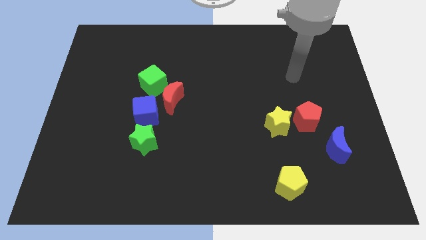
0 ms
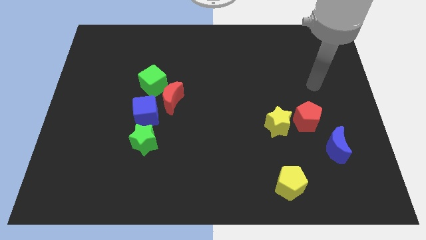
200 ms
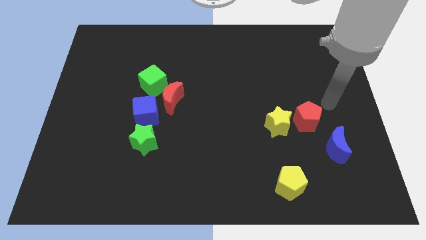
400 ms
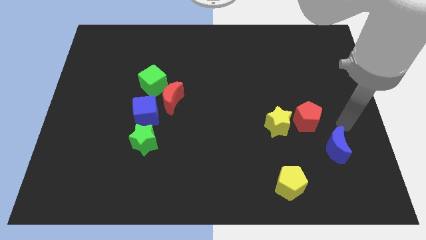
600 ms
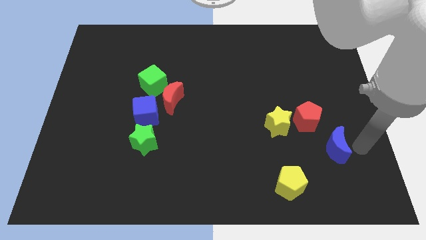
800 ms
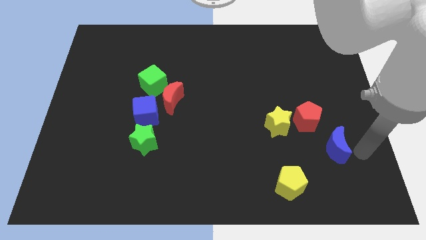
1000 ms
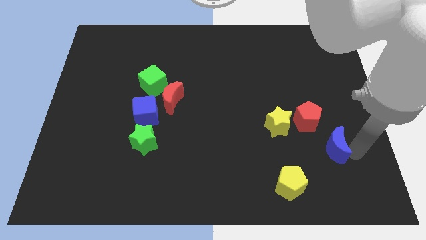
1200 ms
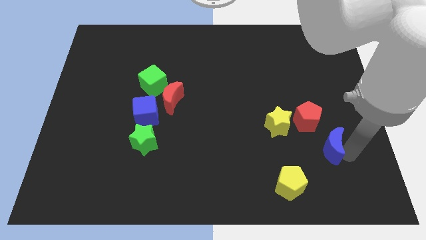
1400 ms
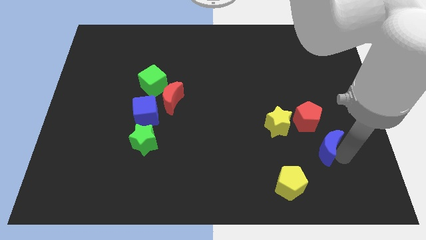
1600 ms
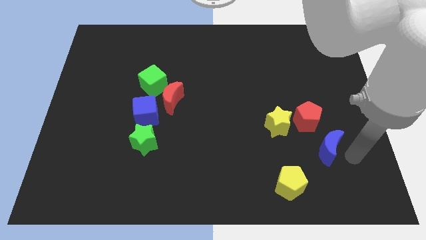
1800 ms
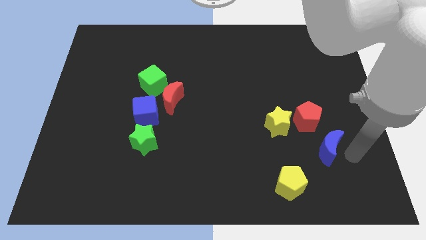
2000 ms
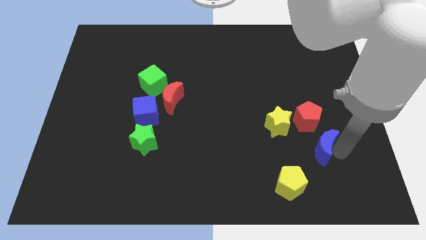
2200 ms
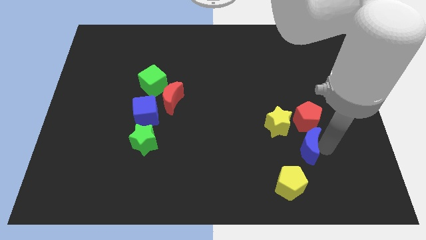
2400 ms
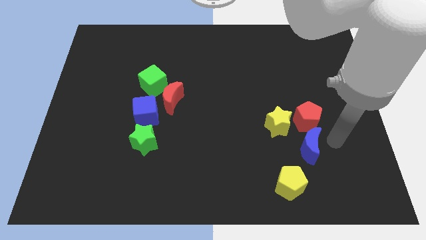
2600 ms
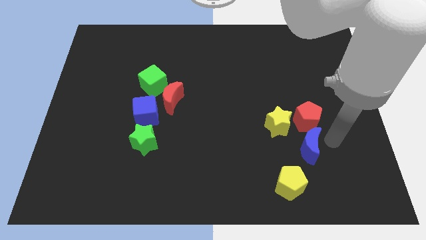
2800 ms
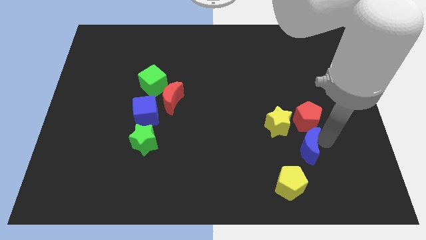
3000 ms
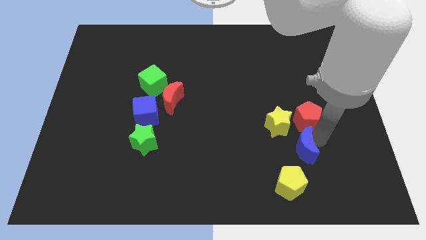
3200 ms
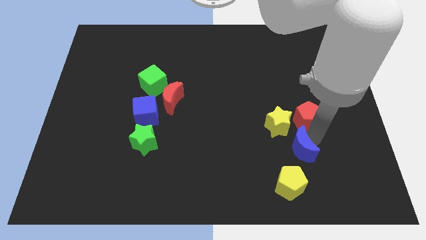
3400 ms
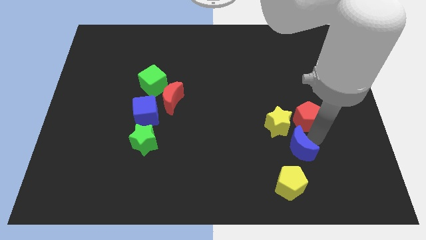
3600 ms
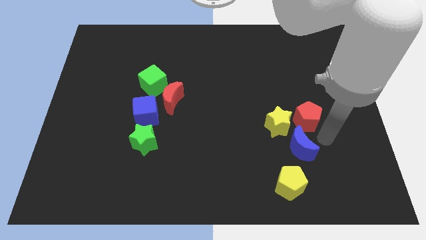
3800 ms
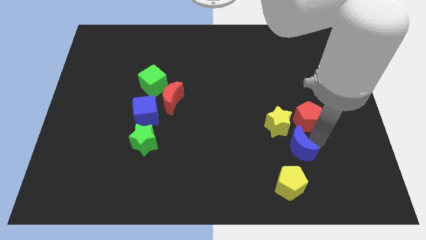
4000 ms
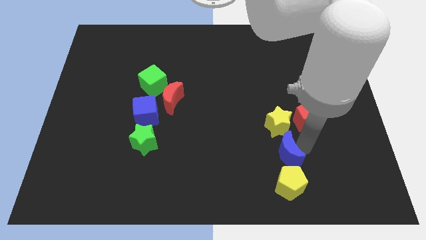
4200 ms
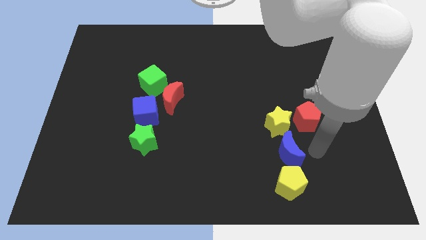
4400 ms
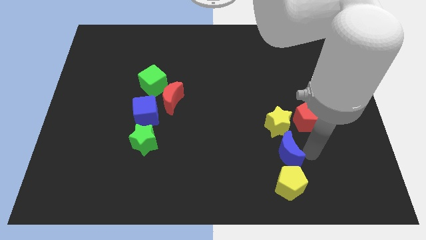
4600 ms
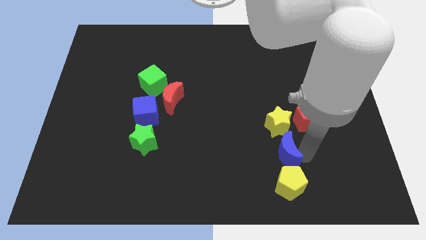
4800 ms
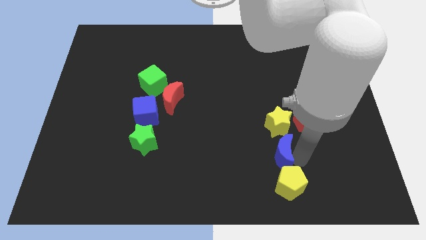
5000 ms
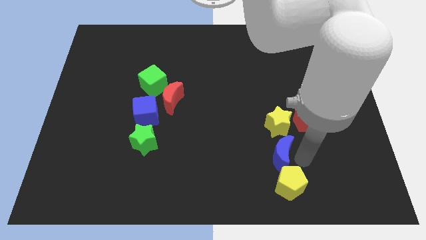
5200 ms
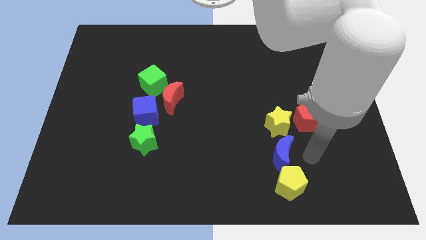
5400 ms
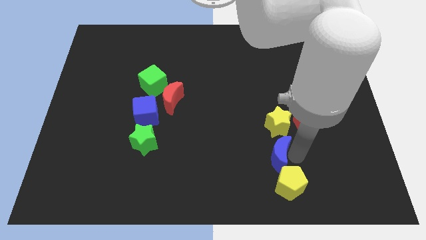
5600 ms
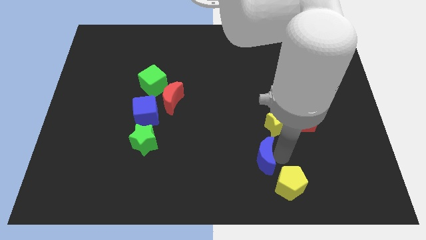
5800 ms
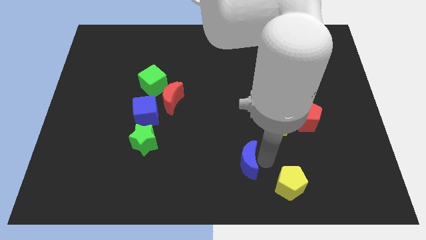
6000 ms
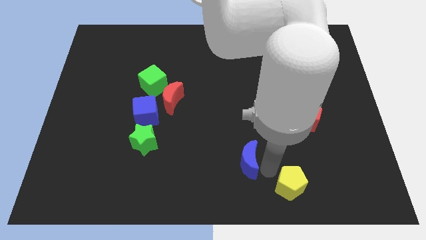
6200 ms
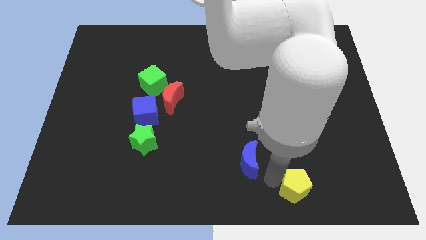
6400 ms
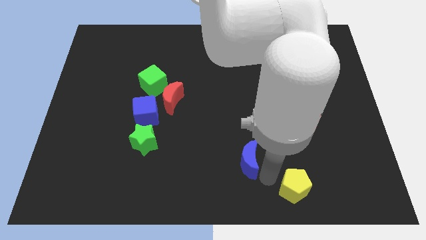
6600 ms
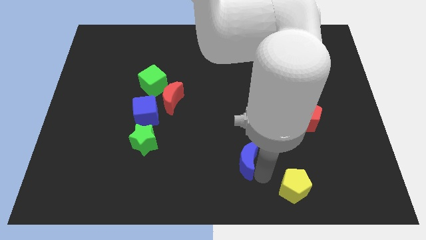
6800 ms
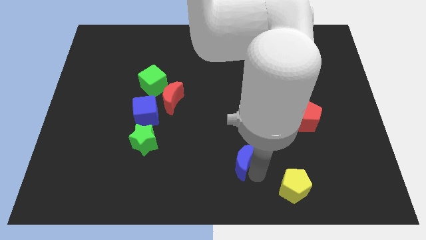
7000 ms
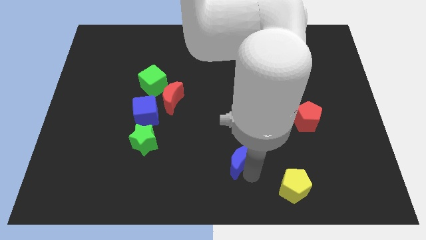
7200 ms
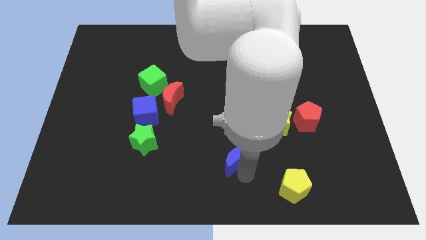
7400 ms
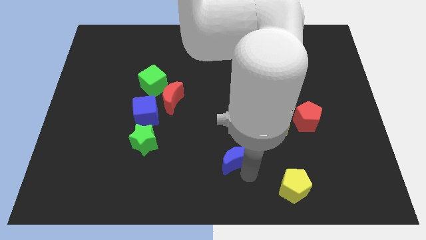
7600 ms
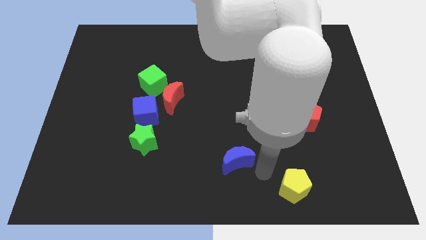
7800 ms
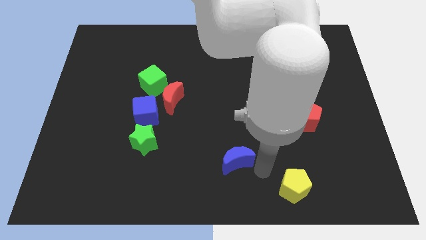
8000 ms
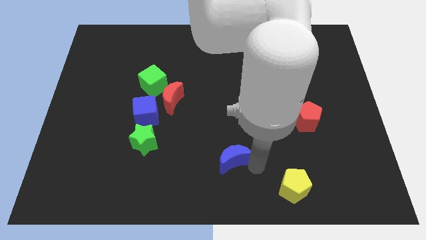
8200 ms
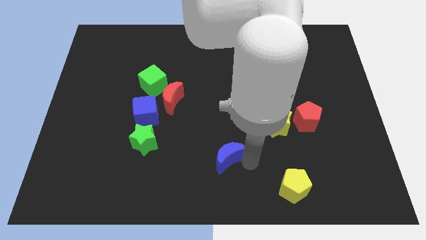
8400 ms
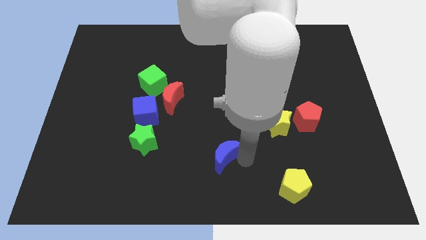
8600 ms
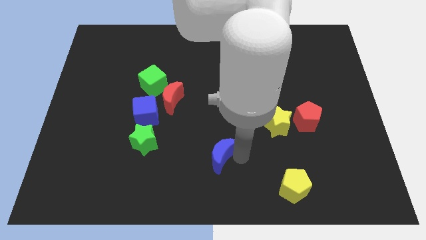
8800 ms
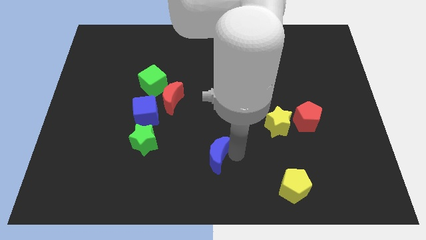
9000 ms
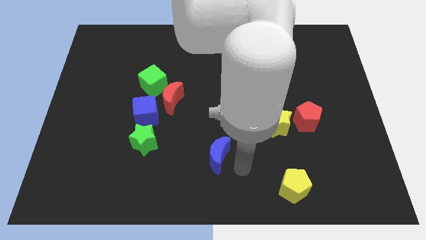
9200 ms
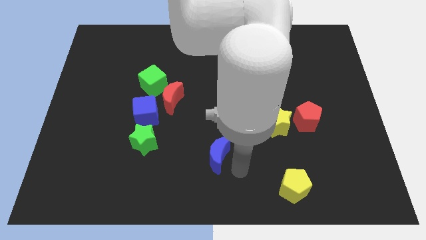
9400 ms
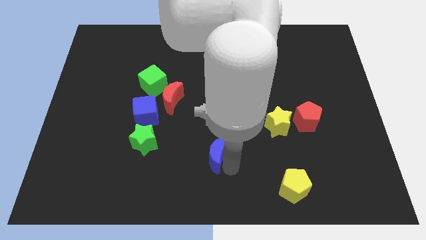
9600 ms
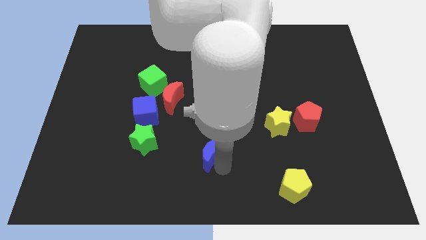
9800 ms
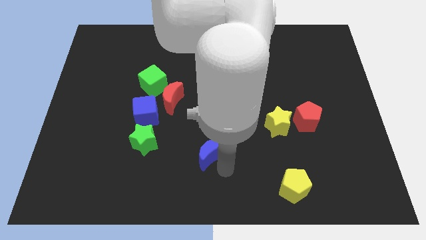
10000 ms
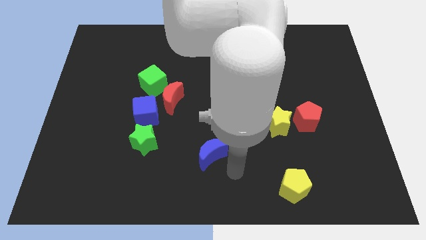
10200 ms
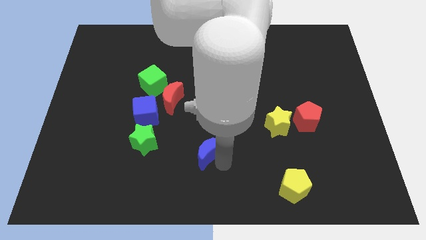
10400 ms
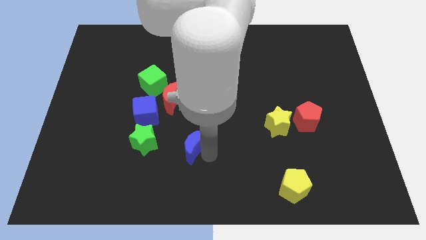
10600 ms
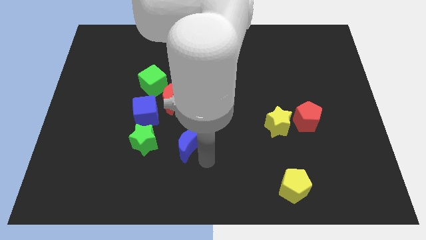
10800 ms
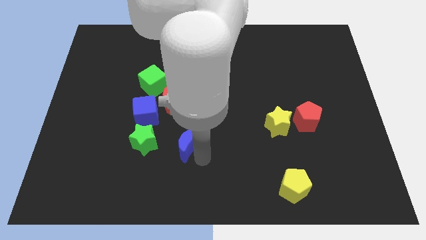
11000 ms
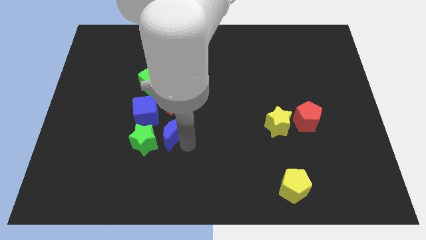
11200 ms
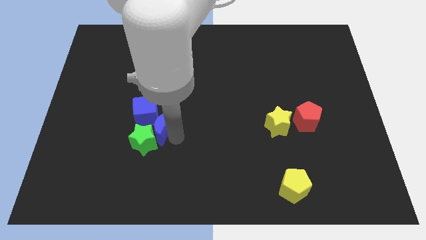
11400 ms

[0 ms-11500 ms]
move the blue moon next to the blue cube
